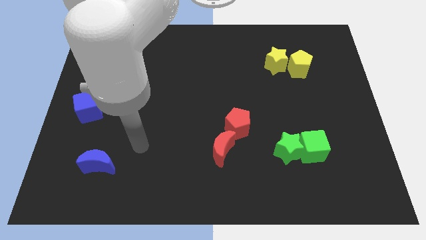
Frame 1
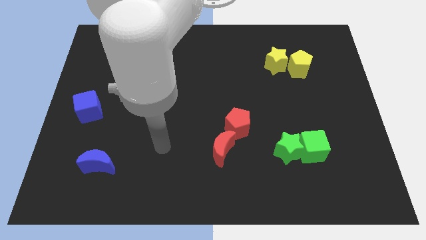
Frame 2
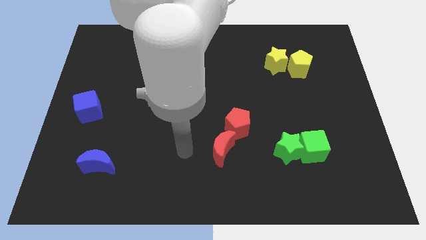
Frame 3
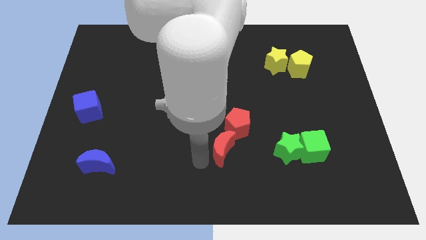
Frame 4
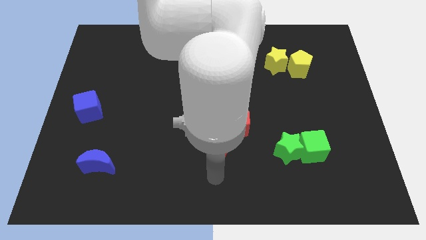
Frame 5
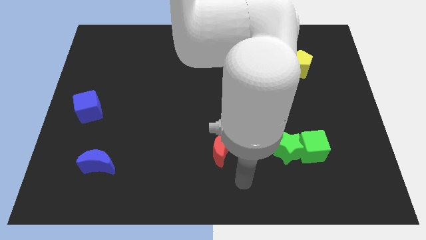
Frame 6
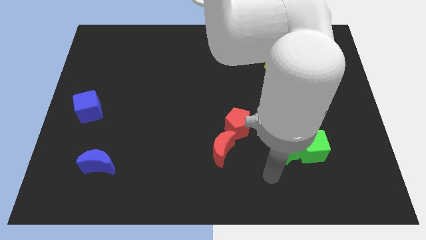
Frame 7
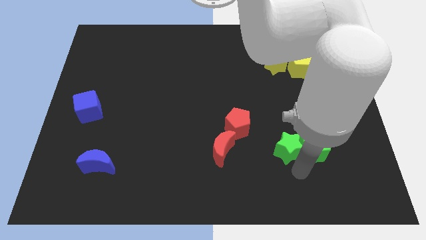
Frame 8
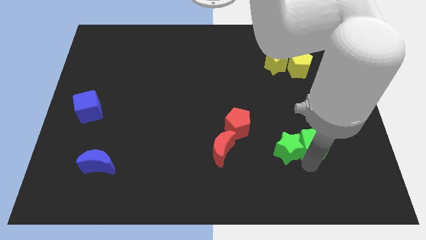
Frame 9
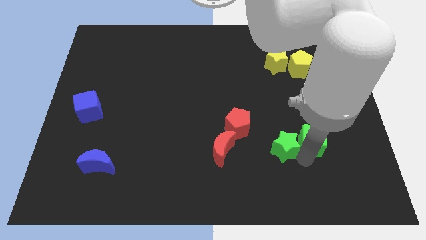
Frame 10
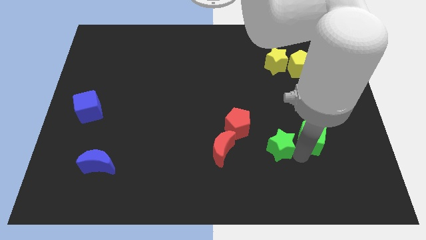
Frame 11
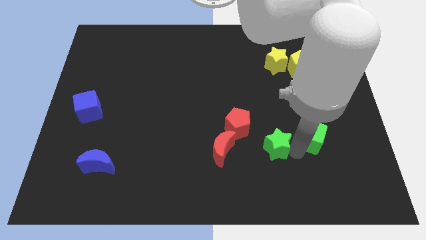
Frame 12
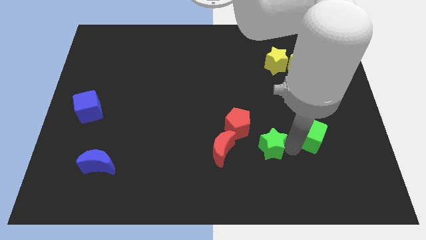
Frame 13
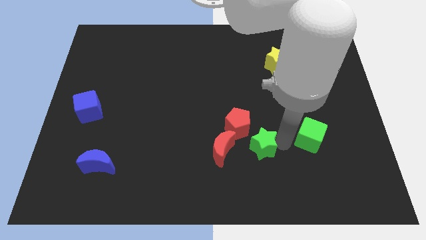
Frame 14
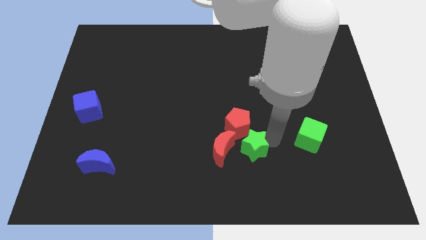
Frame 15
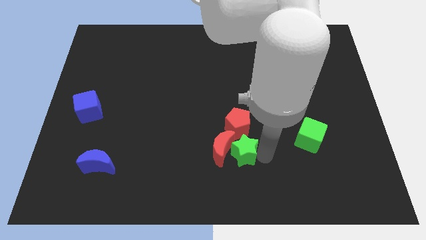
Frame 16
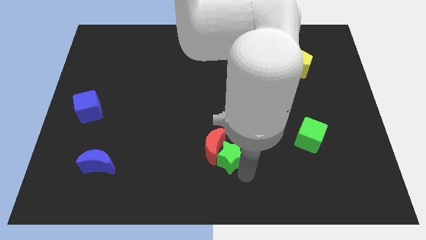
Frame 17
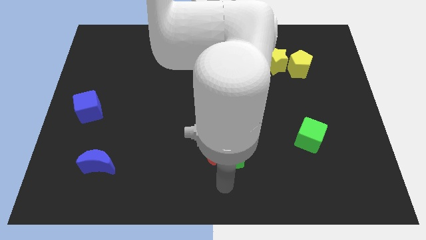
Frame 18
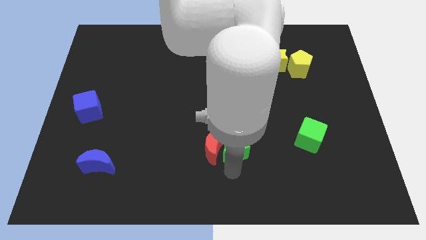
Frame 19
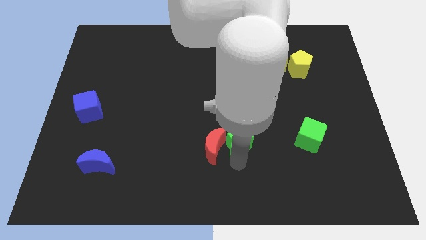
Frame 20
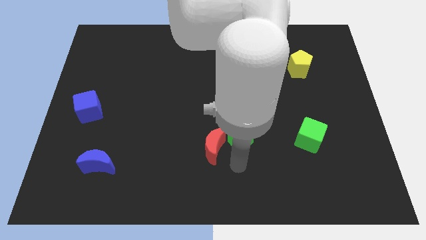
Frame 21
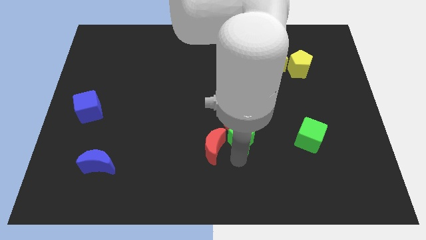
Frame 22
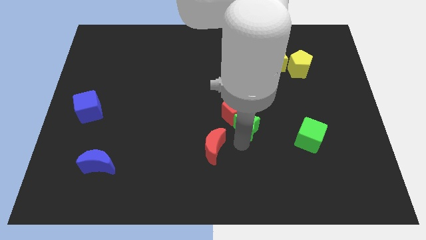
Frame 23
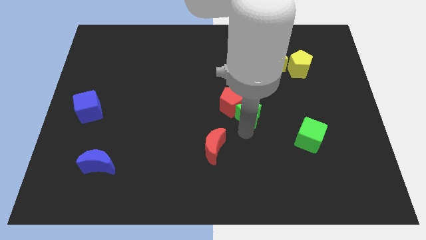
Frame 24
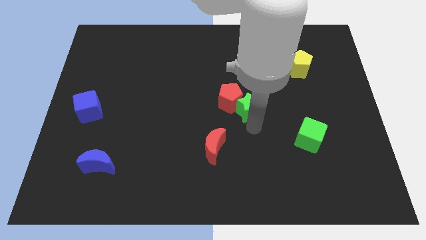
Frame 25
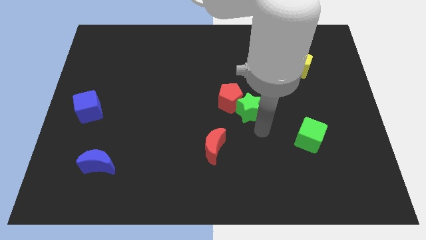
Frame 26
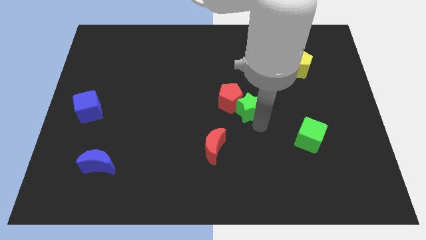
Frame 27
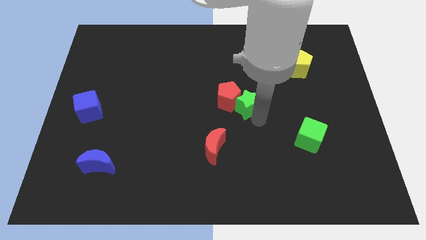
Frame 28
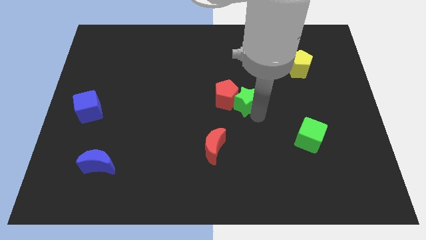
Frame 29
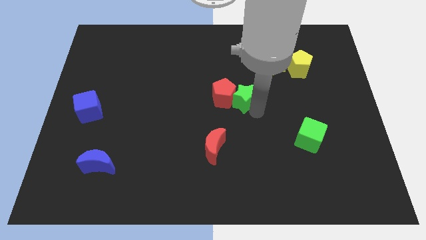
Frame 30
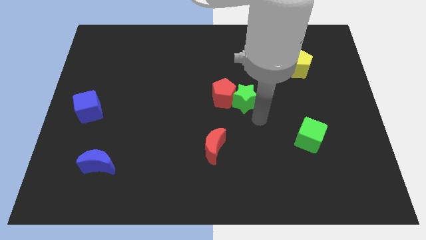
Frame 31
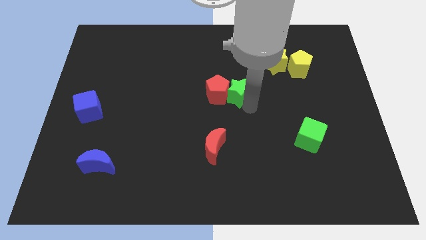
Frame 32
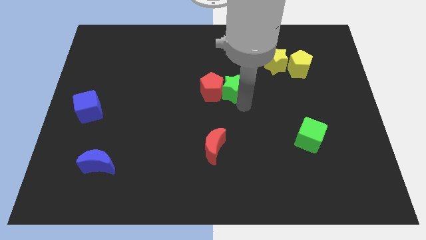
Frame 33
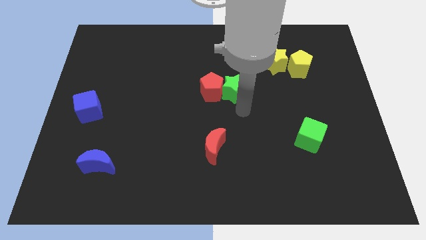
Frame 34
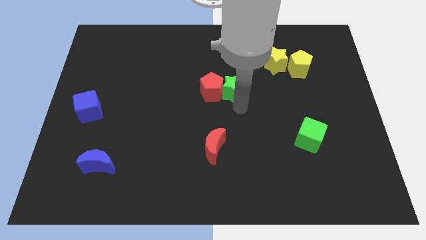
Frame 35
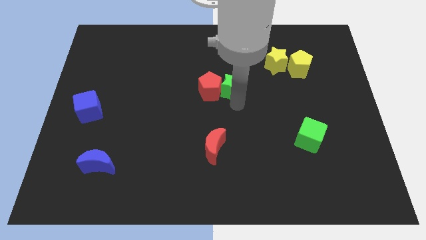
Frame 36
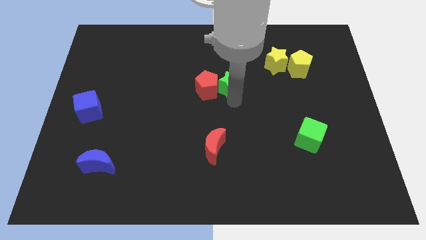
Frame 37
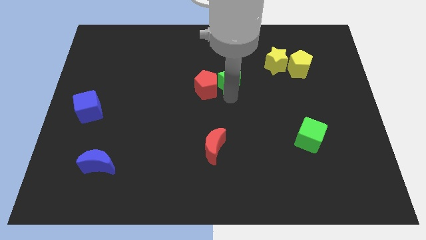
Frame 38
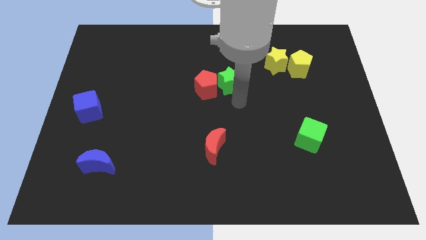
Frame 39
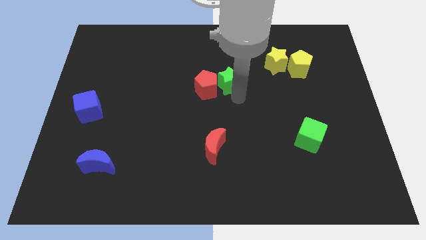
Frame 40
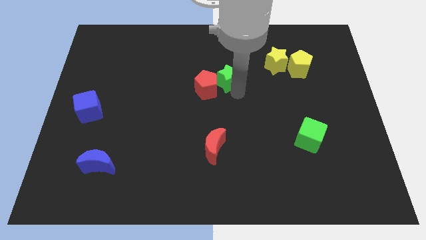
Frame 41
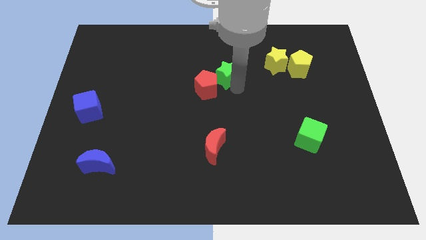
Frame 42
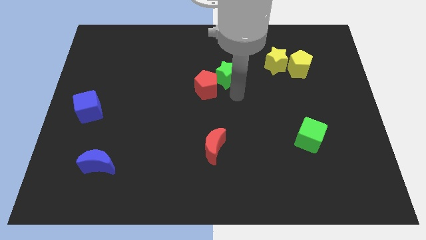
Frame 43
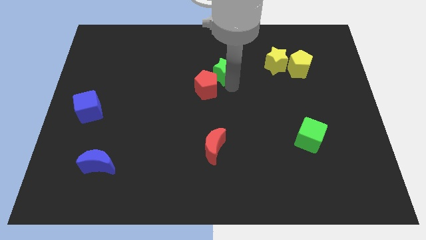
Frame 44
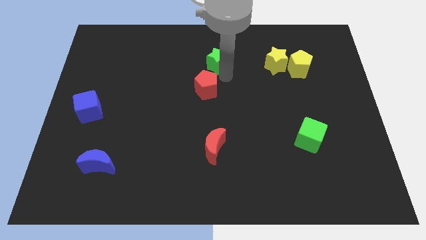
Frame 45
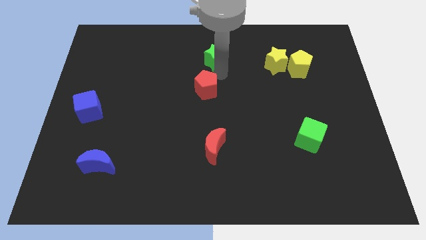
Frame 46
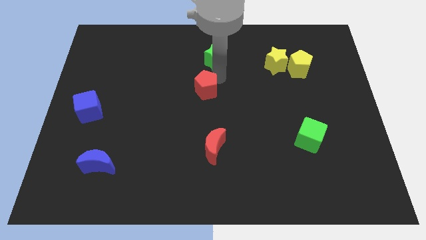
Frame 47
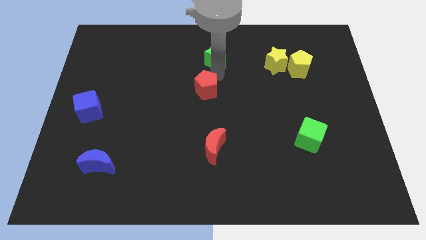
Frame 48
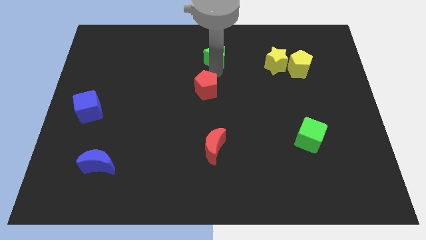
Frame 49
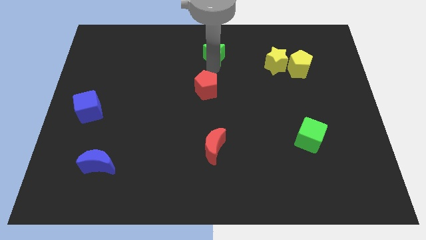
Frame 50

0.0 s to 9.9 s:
push the green star to the towards your base

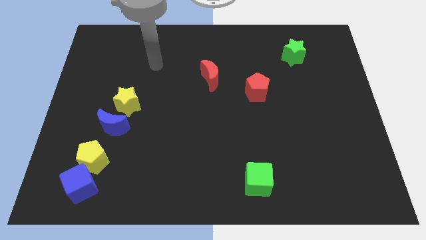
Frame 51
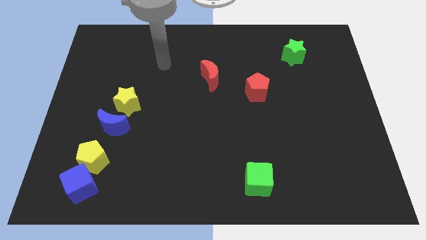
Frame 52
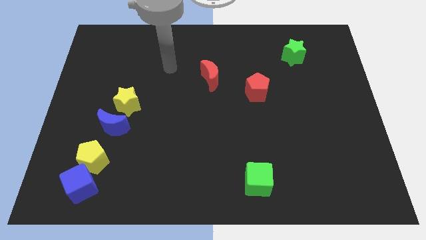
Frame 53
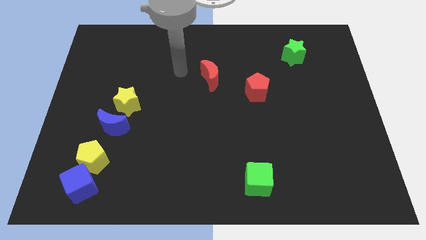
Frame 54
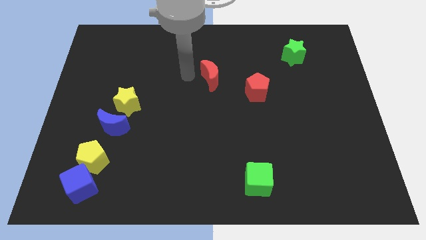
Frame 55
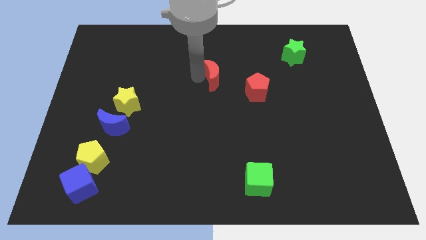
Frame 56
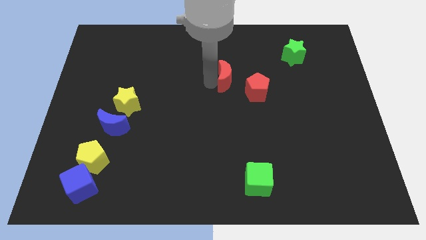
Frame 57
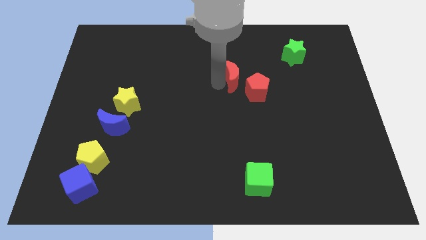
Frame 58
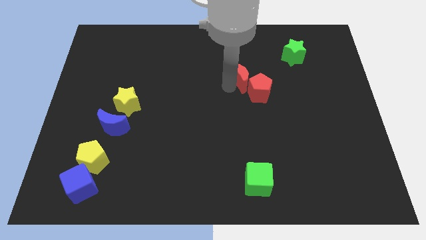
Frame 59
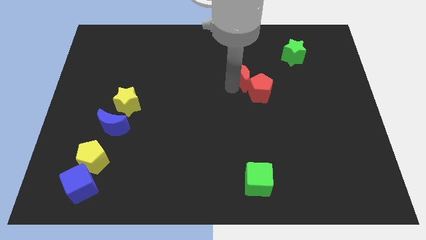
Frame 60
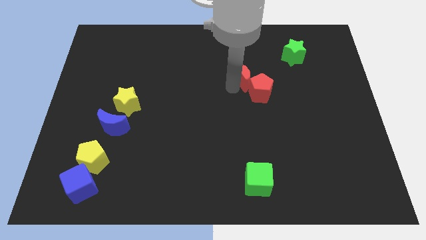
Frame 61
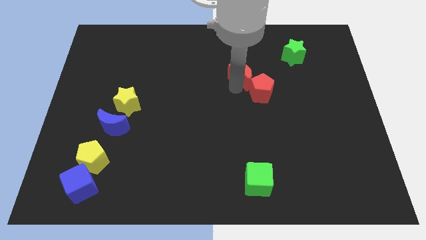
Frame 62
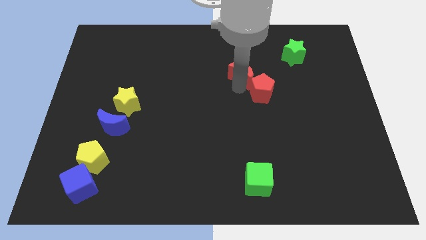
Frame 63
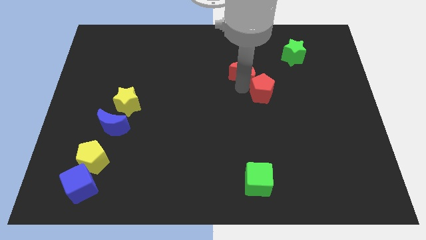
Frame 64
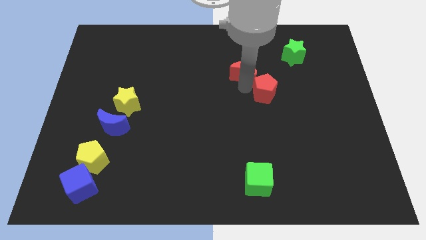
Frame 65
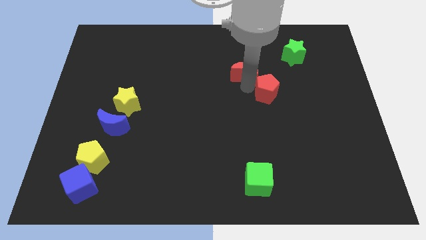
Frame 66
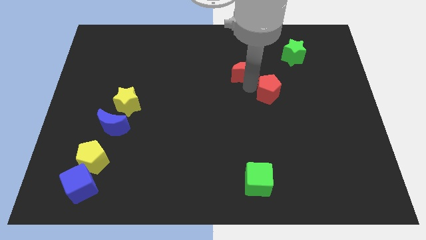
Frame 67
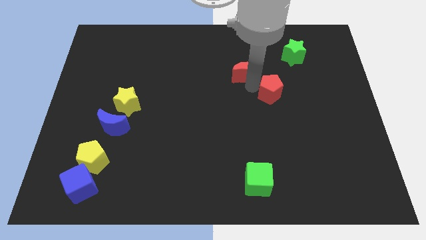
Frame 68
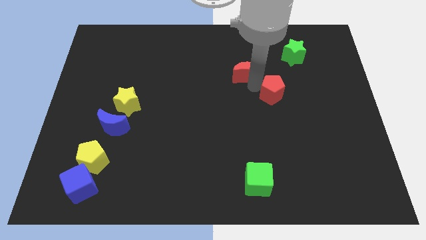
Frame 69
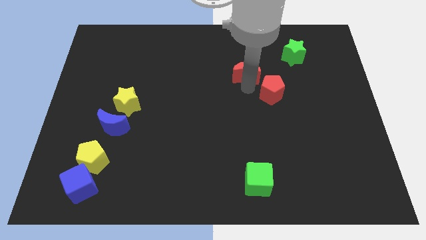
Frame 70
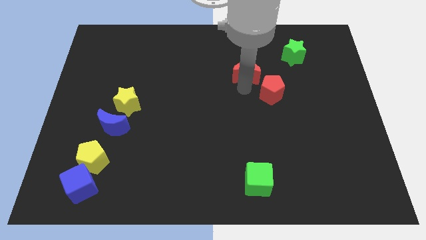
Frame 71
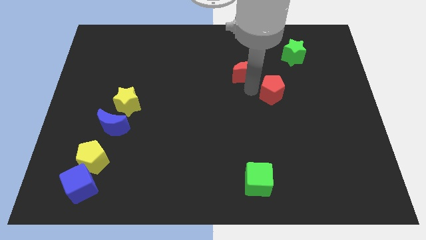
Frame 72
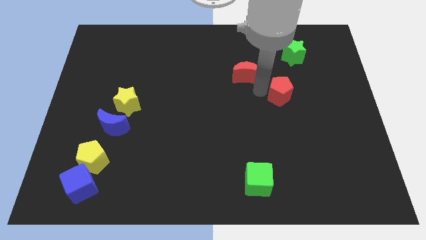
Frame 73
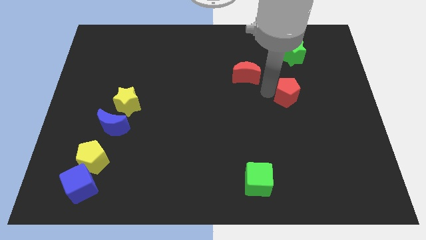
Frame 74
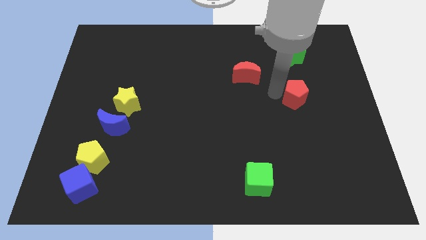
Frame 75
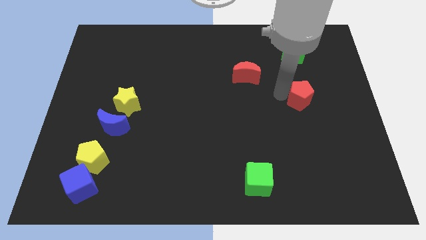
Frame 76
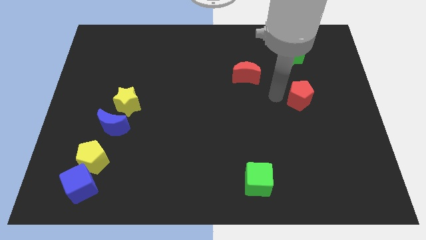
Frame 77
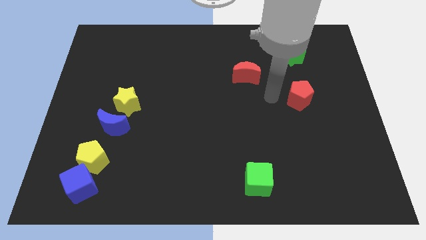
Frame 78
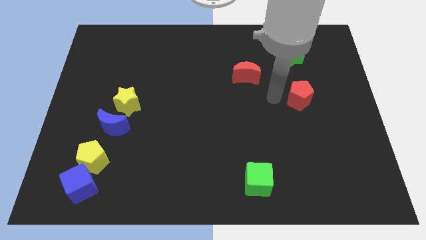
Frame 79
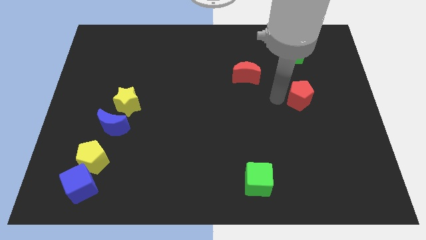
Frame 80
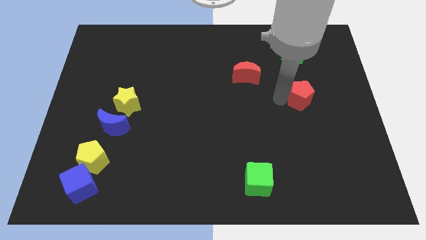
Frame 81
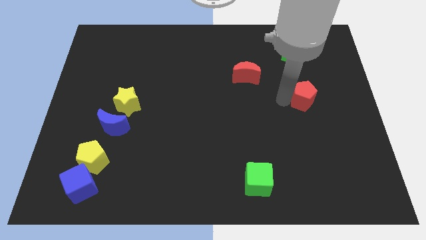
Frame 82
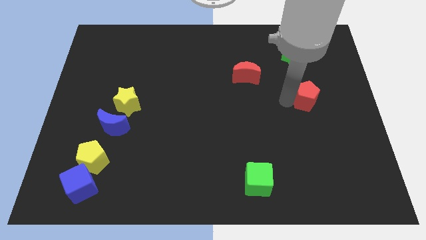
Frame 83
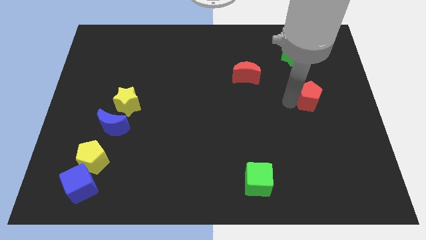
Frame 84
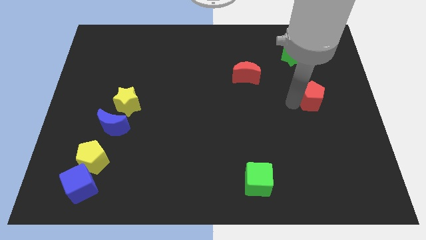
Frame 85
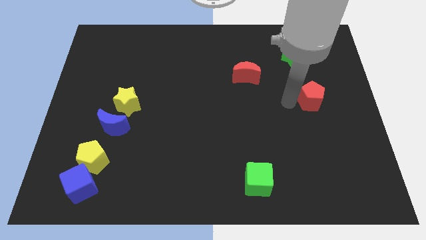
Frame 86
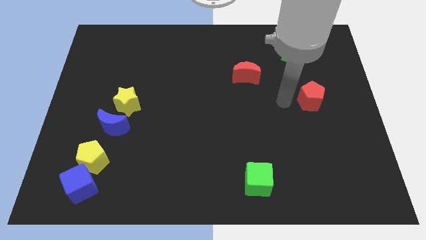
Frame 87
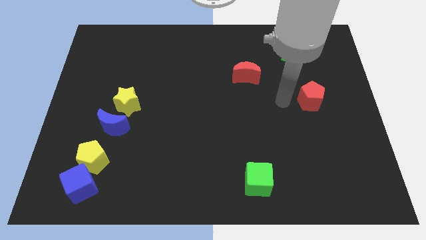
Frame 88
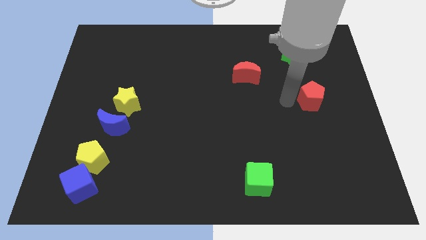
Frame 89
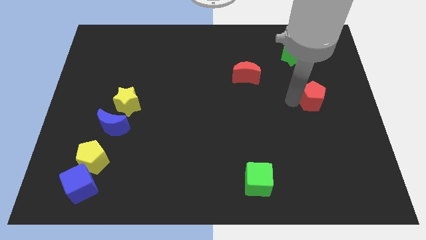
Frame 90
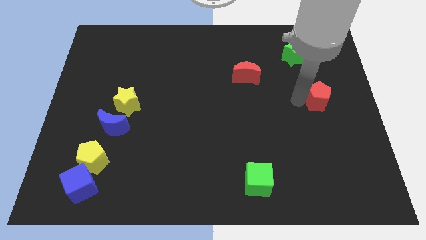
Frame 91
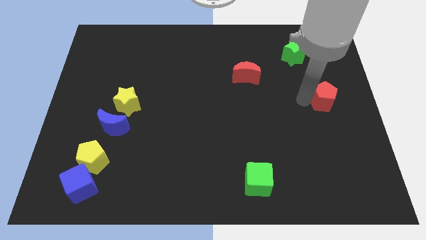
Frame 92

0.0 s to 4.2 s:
put the red pentagon to the right side of the board
